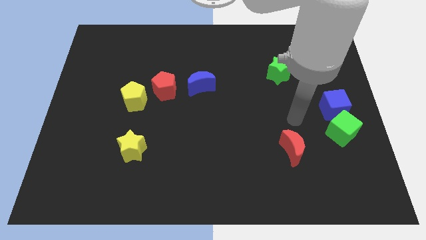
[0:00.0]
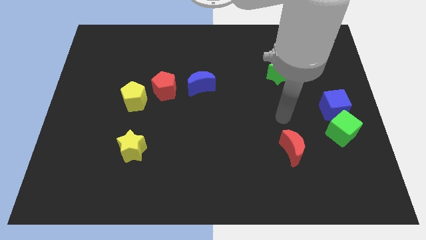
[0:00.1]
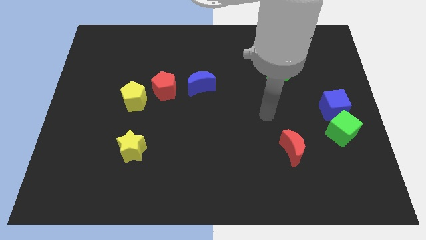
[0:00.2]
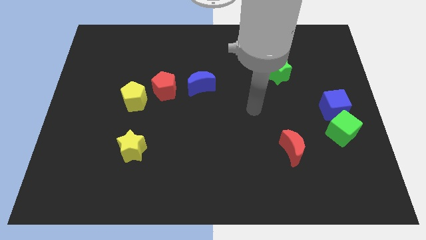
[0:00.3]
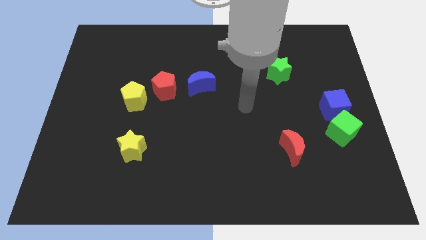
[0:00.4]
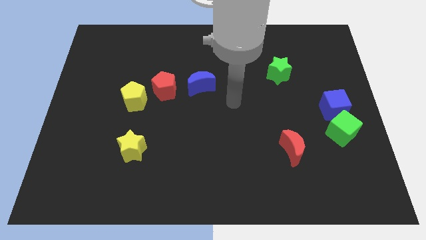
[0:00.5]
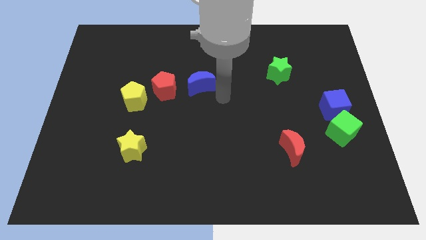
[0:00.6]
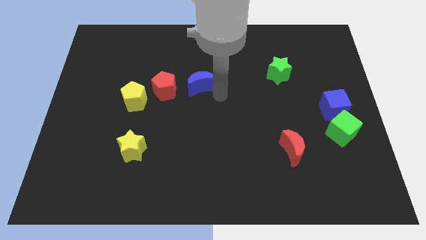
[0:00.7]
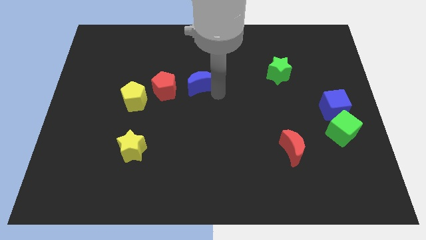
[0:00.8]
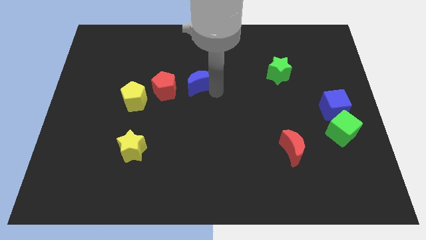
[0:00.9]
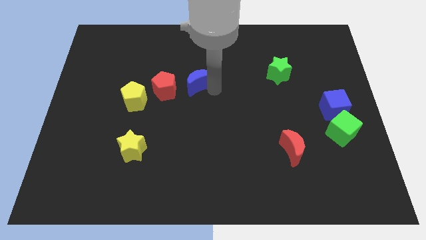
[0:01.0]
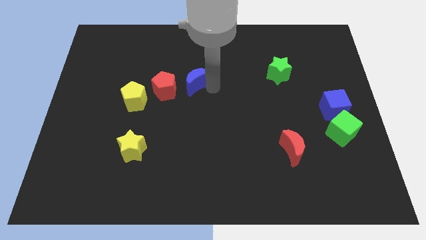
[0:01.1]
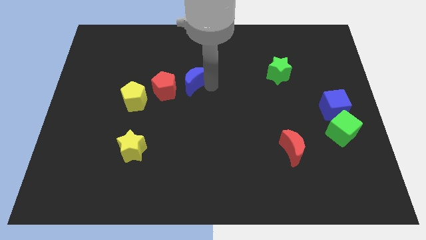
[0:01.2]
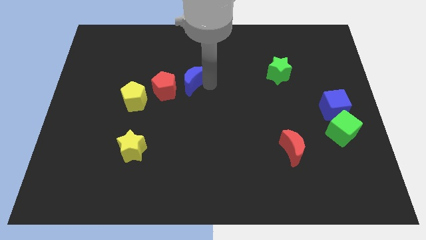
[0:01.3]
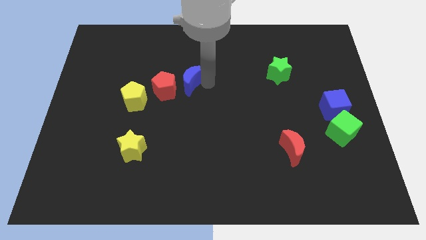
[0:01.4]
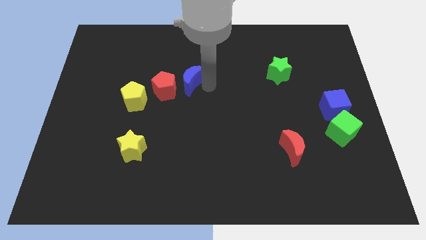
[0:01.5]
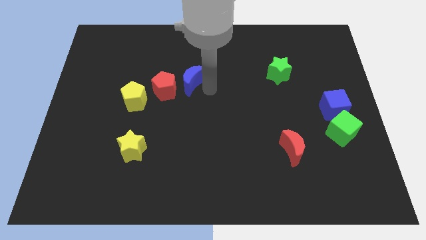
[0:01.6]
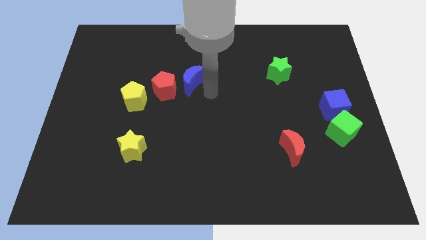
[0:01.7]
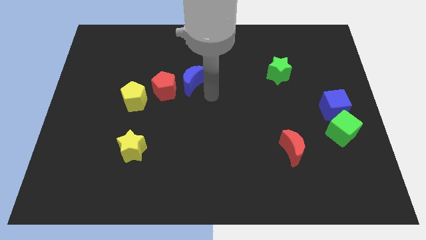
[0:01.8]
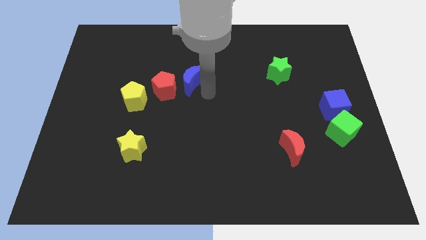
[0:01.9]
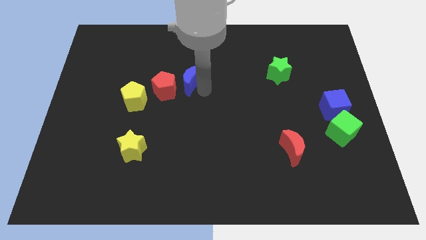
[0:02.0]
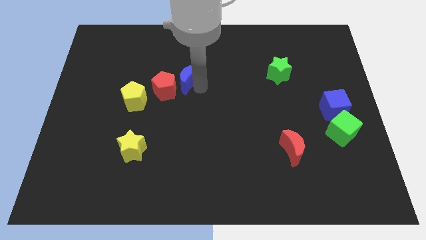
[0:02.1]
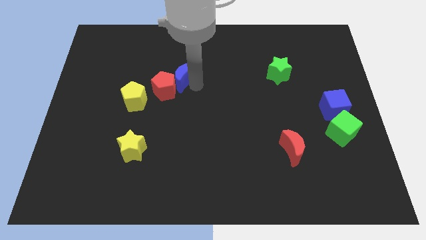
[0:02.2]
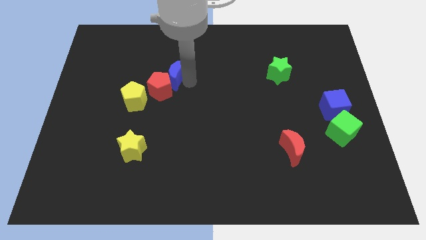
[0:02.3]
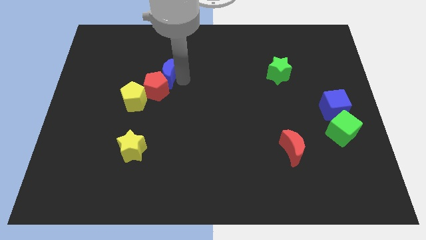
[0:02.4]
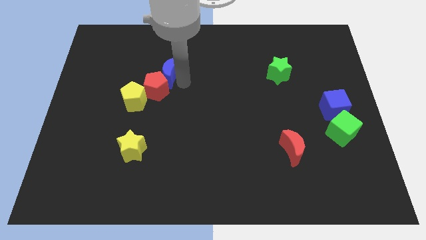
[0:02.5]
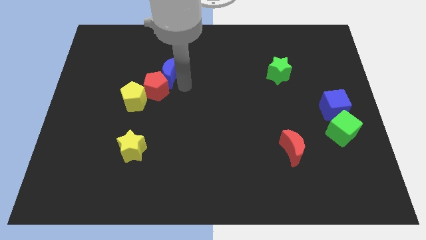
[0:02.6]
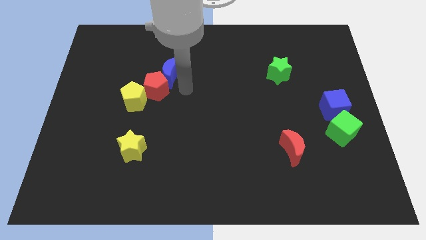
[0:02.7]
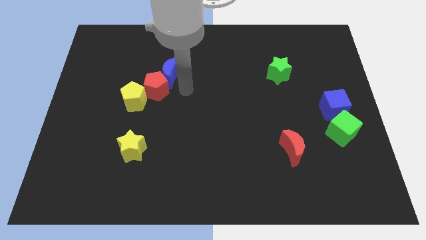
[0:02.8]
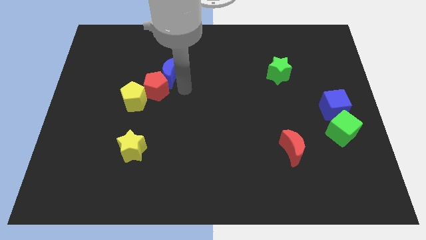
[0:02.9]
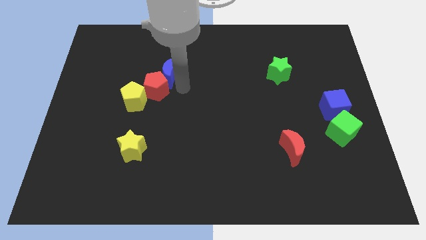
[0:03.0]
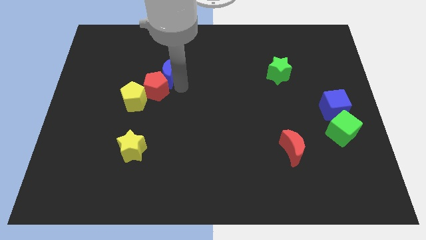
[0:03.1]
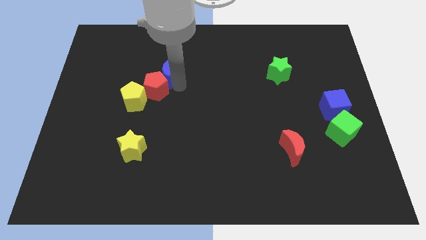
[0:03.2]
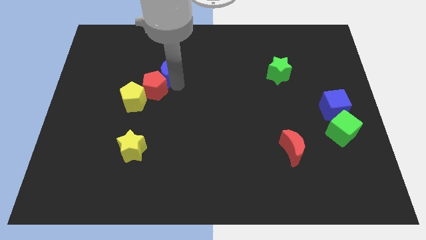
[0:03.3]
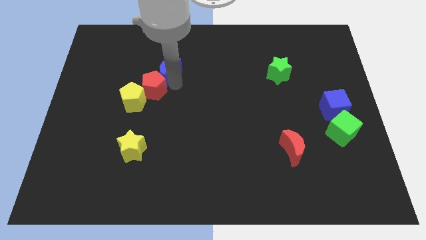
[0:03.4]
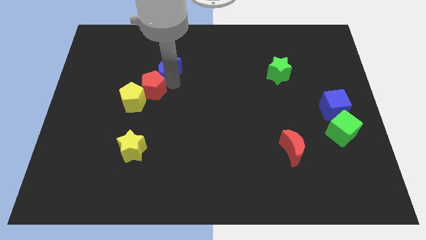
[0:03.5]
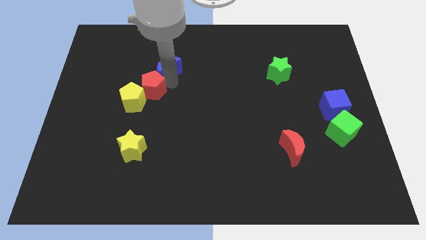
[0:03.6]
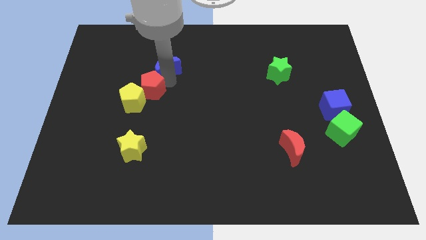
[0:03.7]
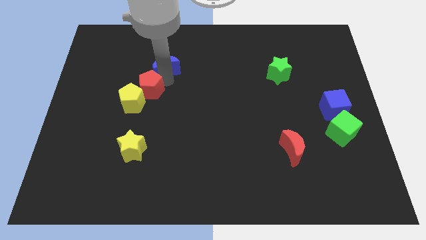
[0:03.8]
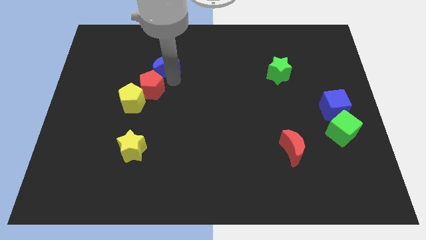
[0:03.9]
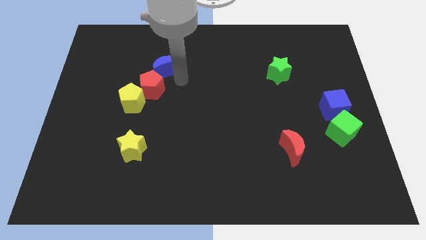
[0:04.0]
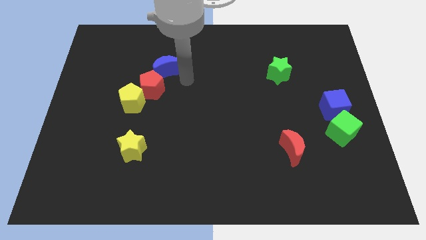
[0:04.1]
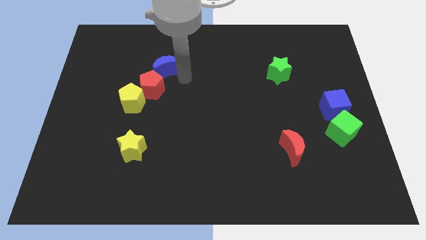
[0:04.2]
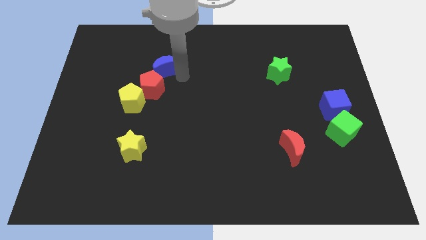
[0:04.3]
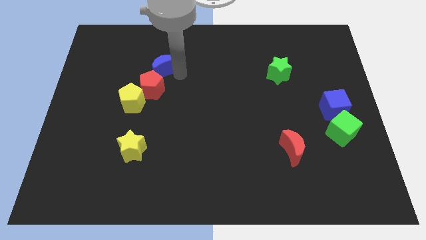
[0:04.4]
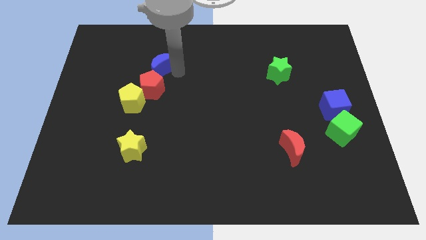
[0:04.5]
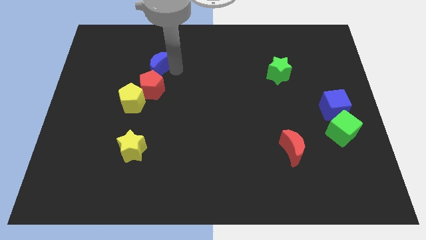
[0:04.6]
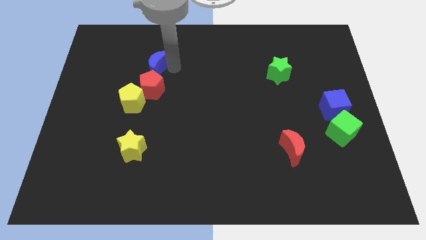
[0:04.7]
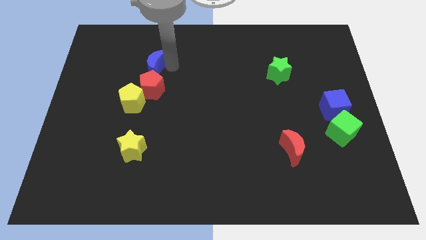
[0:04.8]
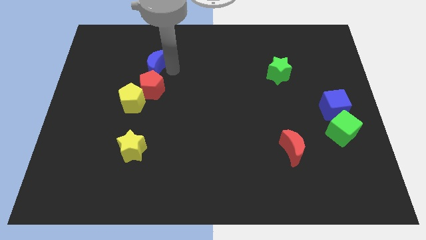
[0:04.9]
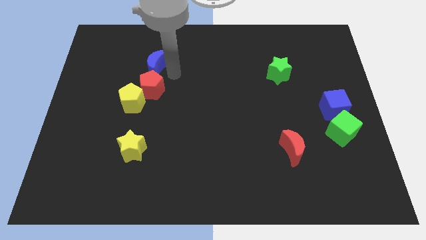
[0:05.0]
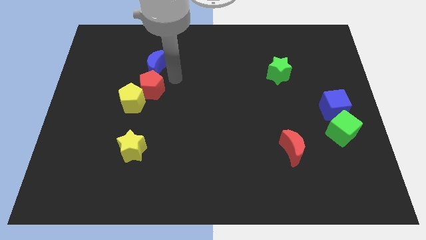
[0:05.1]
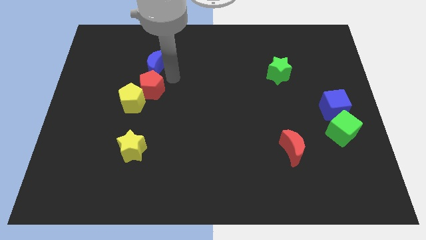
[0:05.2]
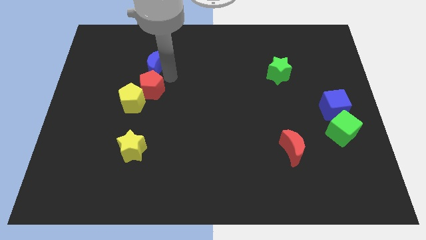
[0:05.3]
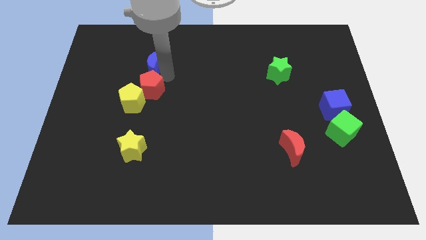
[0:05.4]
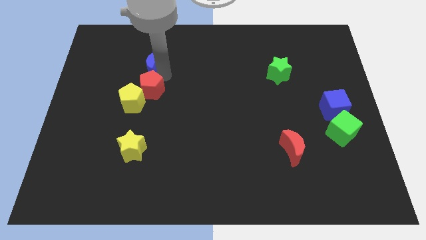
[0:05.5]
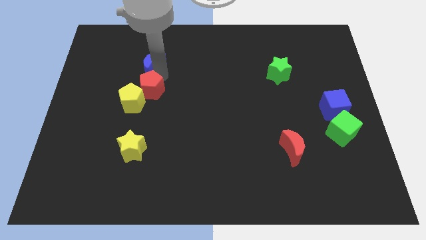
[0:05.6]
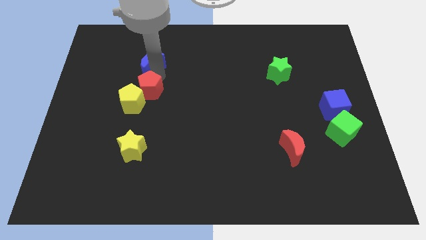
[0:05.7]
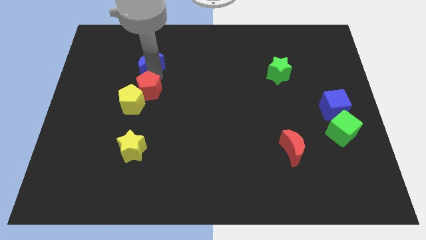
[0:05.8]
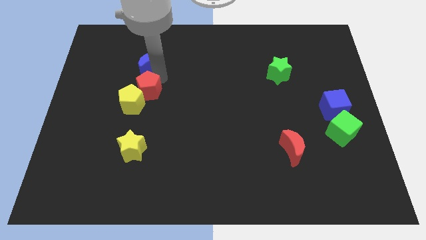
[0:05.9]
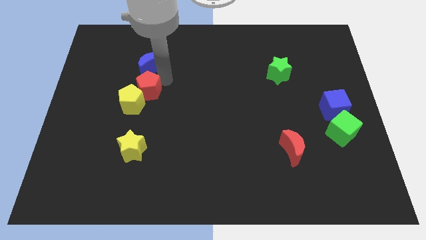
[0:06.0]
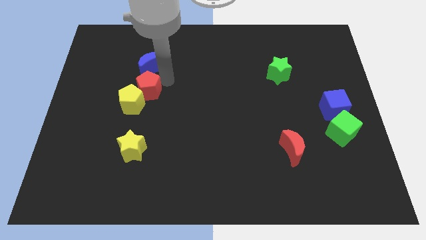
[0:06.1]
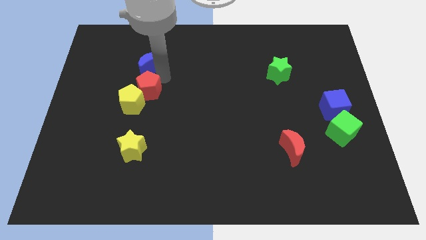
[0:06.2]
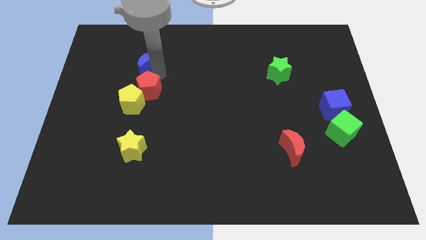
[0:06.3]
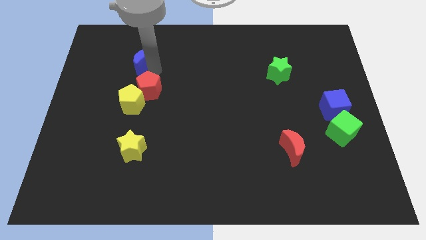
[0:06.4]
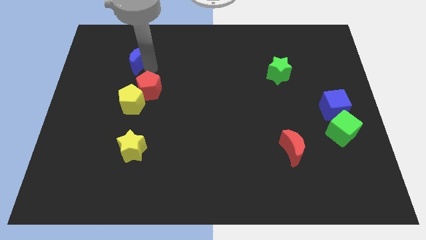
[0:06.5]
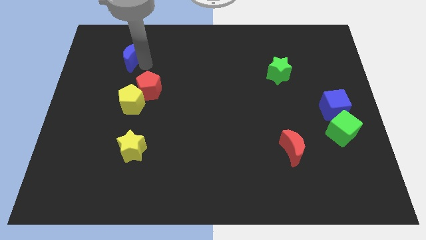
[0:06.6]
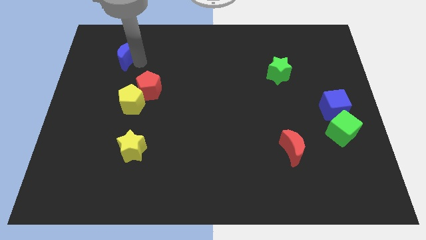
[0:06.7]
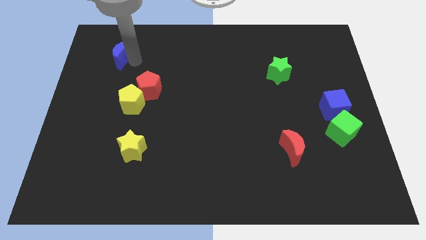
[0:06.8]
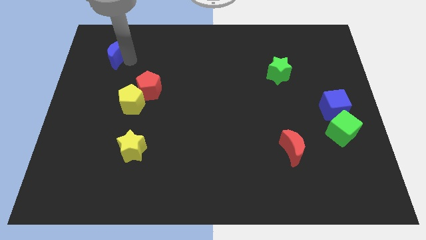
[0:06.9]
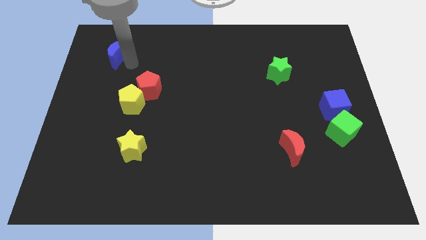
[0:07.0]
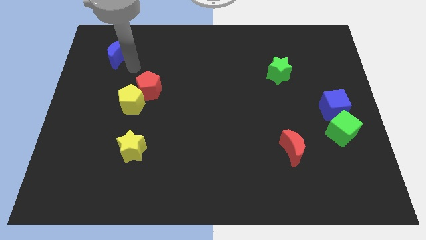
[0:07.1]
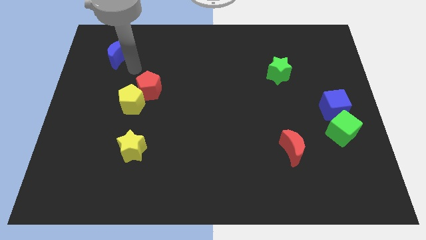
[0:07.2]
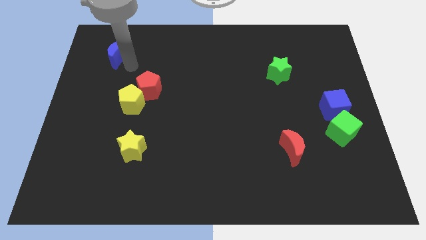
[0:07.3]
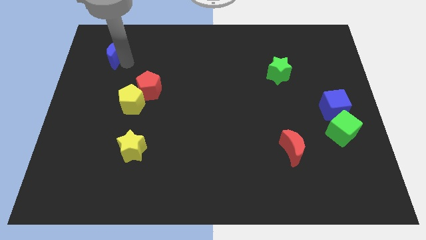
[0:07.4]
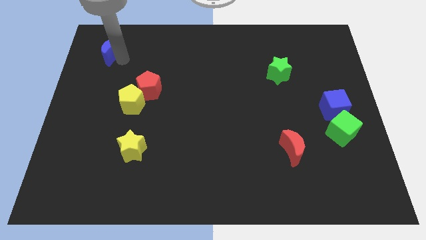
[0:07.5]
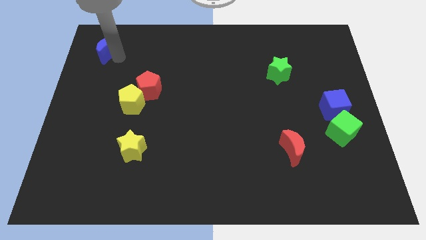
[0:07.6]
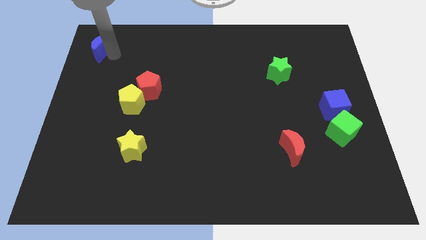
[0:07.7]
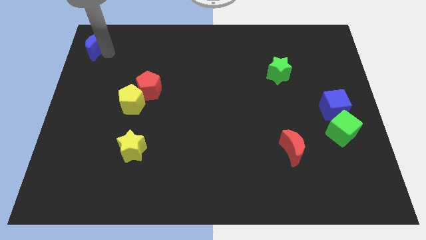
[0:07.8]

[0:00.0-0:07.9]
put the blue moon to the top left of the board
